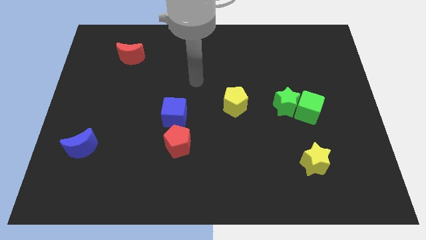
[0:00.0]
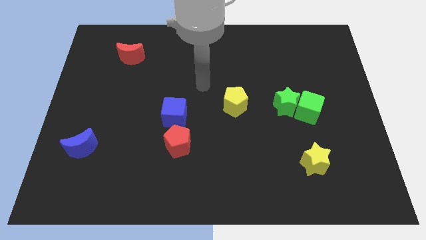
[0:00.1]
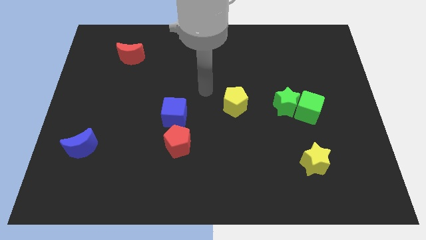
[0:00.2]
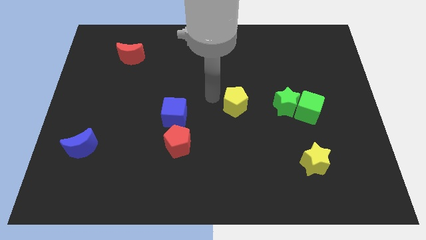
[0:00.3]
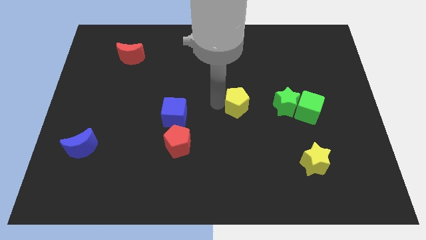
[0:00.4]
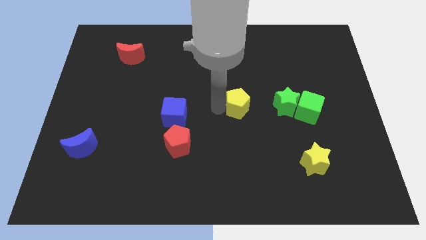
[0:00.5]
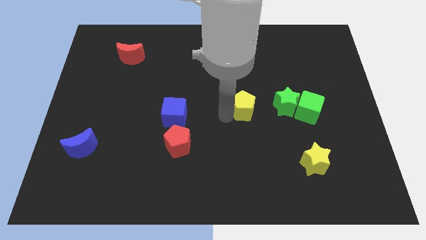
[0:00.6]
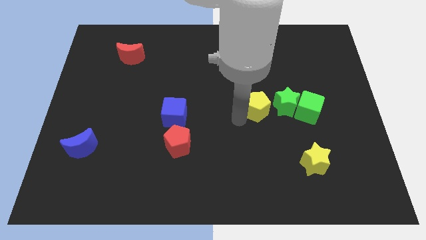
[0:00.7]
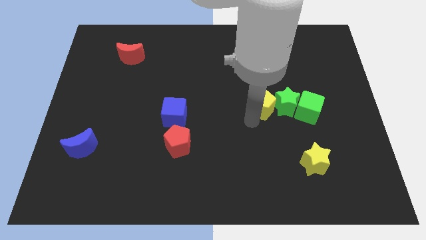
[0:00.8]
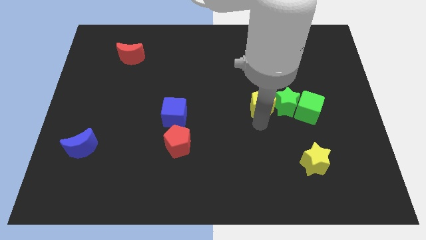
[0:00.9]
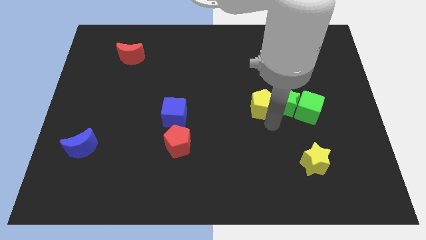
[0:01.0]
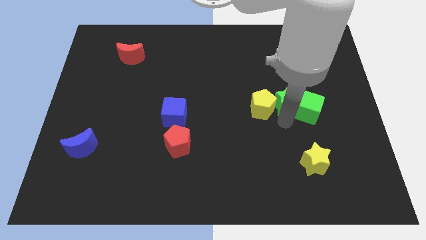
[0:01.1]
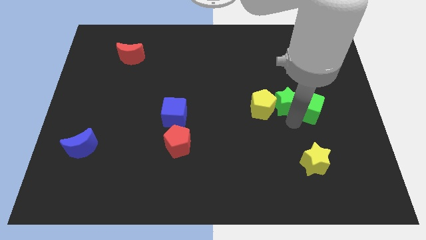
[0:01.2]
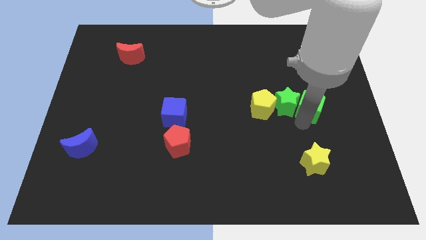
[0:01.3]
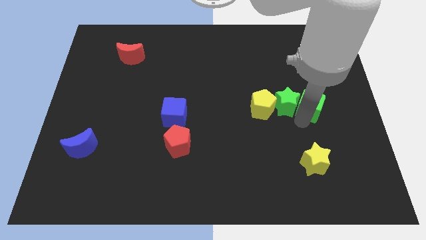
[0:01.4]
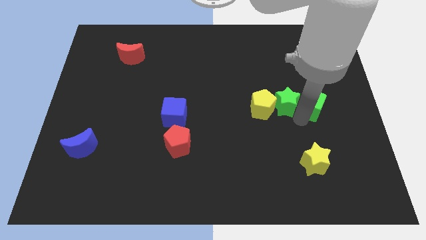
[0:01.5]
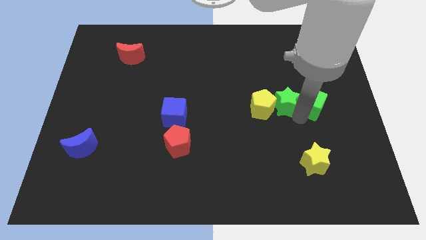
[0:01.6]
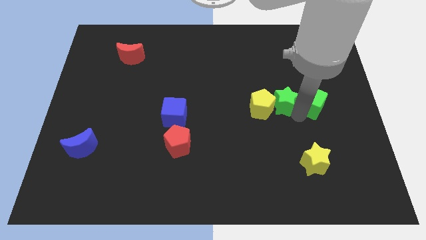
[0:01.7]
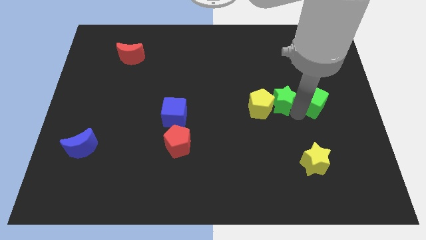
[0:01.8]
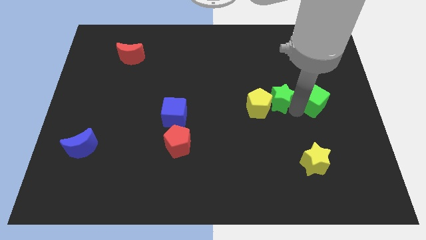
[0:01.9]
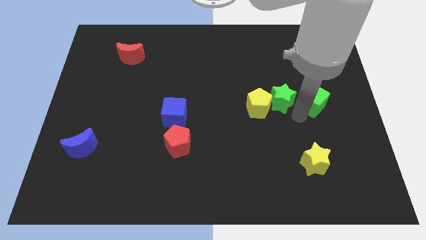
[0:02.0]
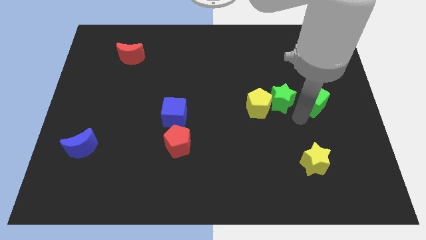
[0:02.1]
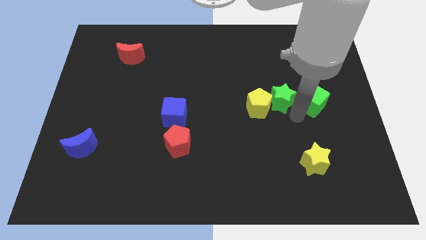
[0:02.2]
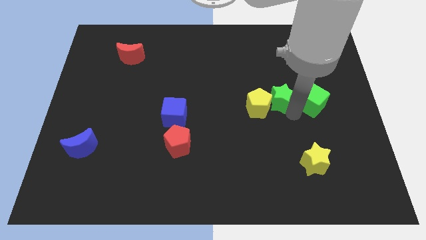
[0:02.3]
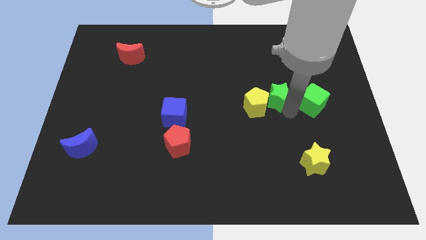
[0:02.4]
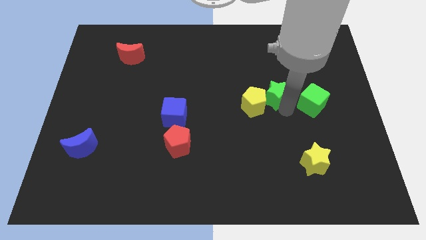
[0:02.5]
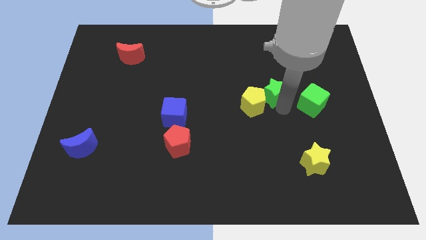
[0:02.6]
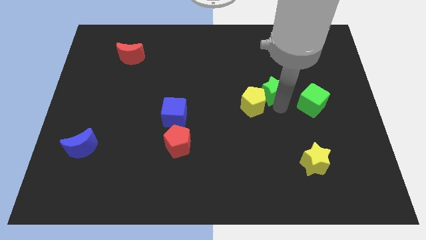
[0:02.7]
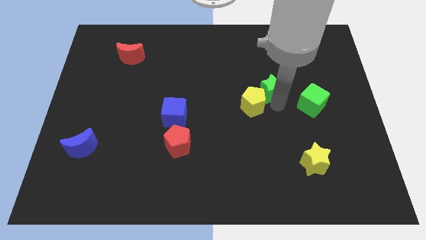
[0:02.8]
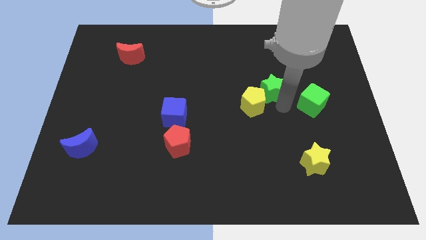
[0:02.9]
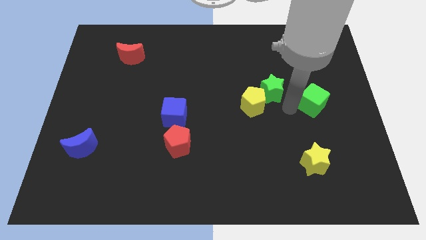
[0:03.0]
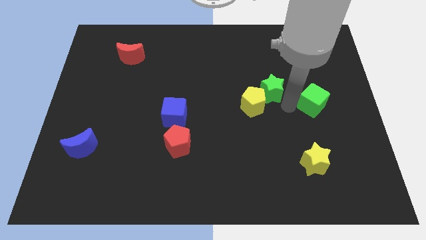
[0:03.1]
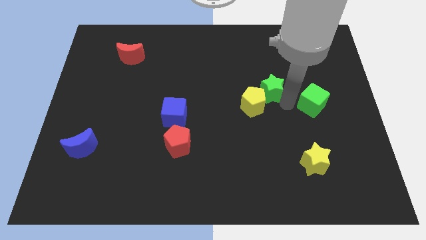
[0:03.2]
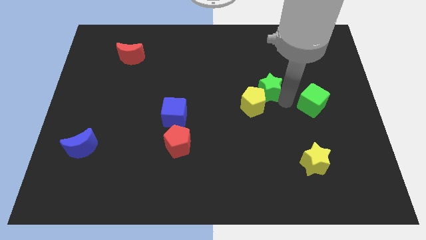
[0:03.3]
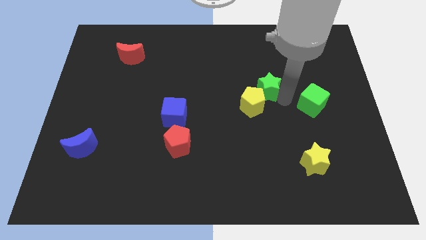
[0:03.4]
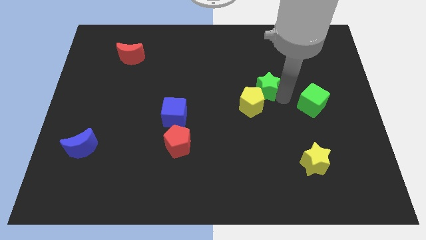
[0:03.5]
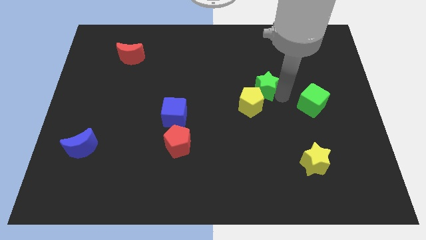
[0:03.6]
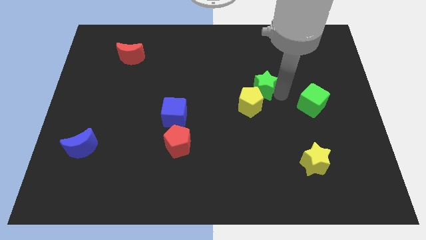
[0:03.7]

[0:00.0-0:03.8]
push the green star a little up and left diagonally

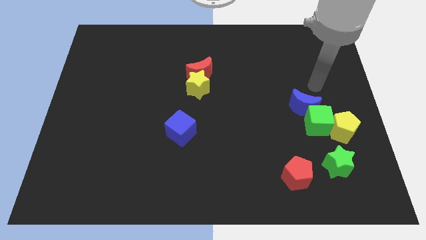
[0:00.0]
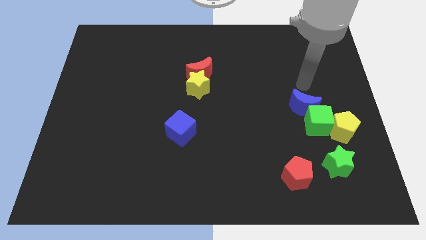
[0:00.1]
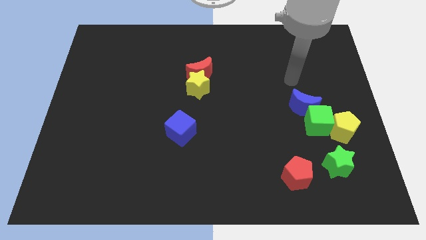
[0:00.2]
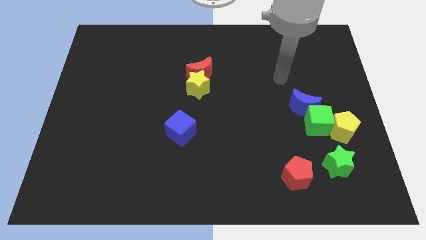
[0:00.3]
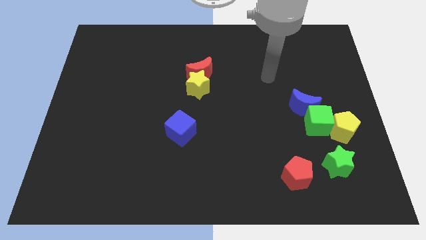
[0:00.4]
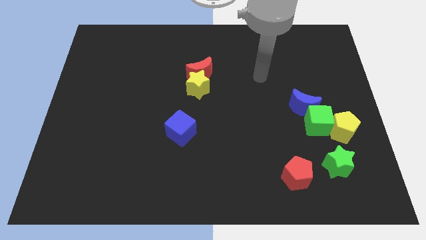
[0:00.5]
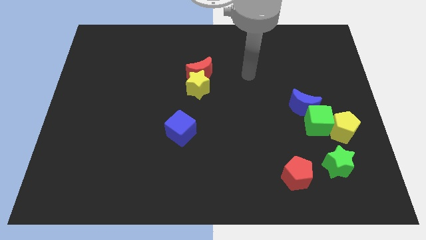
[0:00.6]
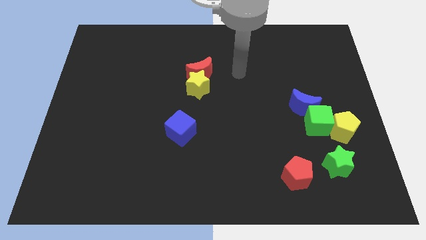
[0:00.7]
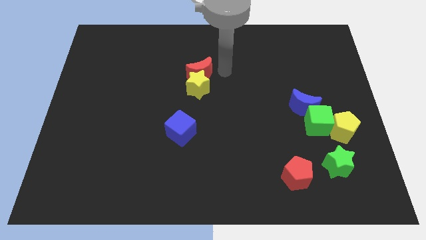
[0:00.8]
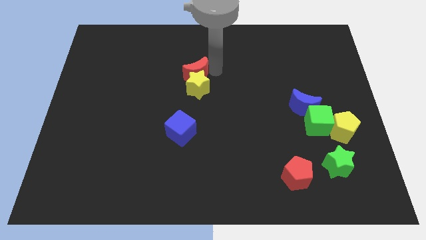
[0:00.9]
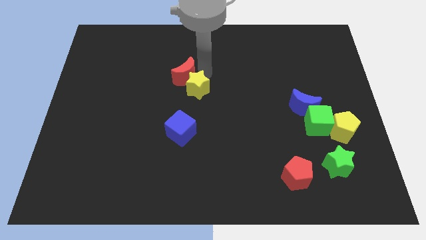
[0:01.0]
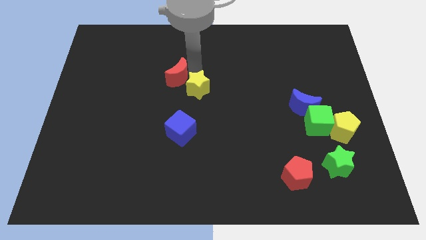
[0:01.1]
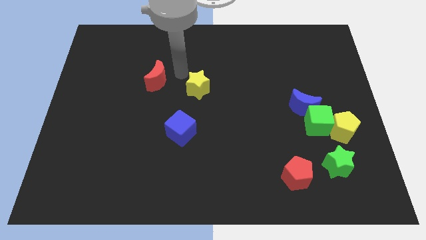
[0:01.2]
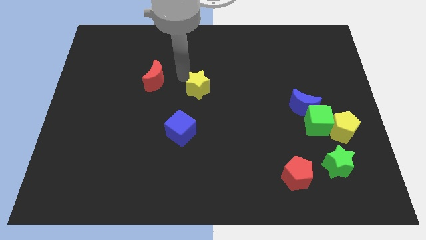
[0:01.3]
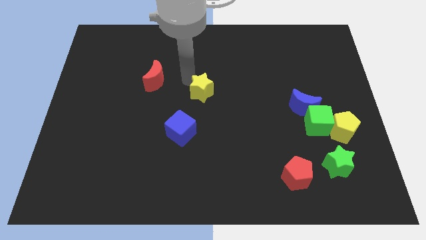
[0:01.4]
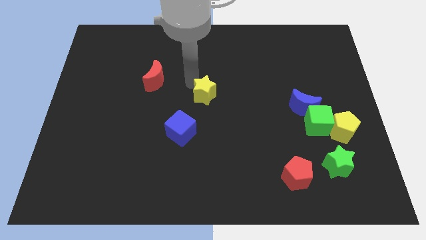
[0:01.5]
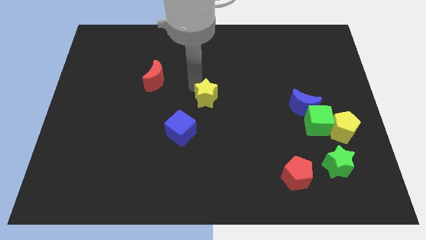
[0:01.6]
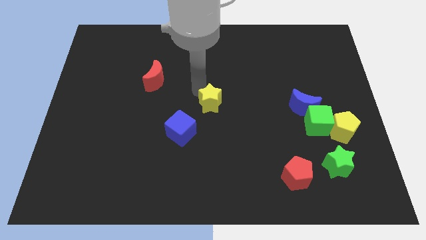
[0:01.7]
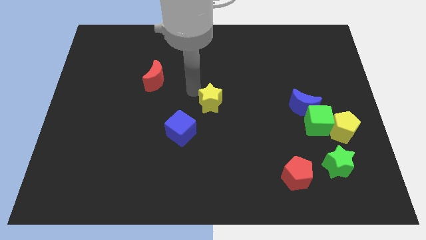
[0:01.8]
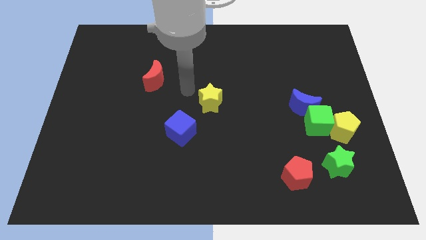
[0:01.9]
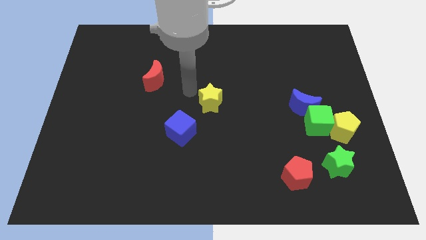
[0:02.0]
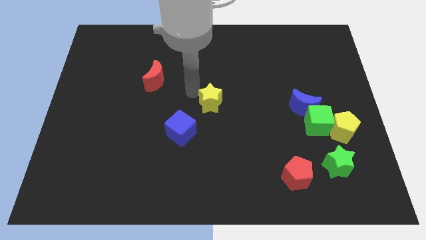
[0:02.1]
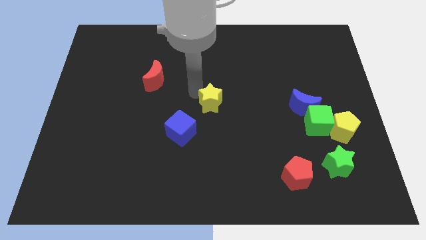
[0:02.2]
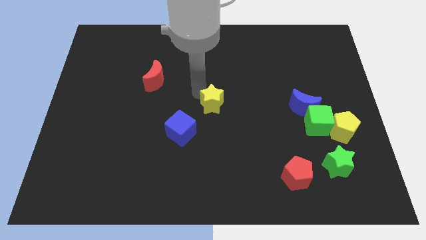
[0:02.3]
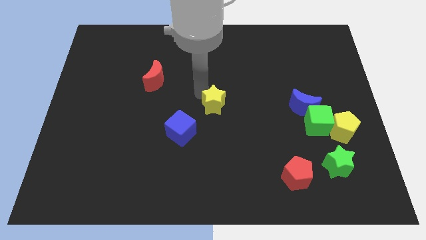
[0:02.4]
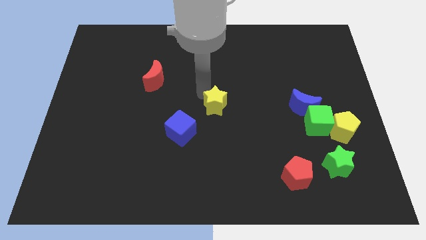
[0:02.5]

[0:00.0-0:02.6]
move the yellow star diagonally downwards and right a bit

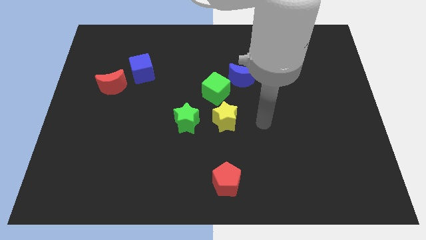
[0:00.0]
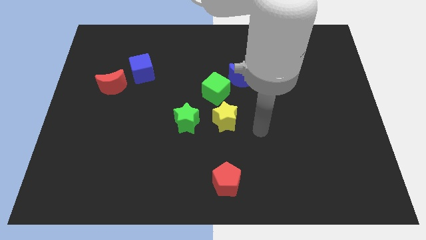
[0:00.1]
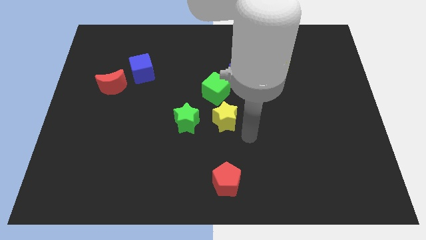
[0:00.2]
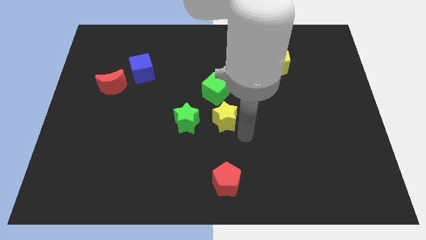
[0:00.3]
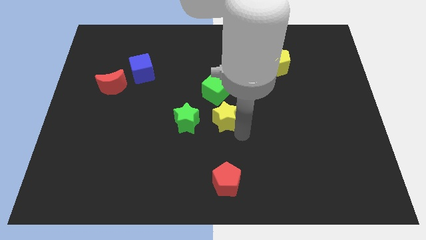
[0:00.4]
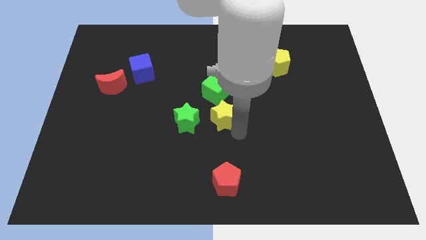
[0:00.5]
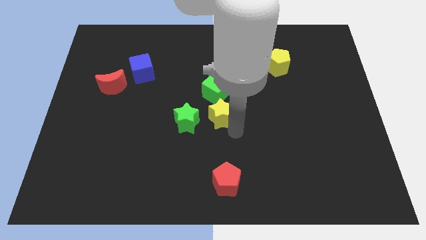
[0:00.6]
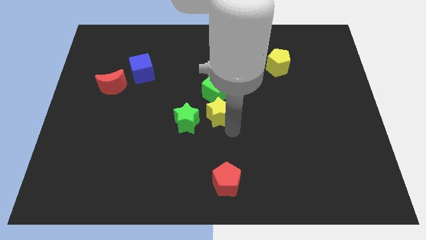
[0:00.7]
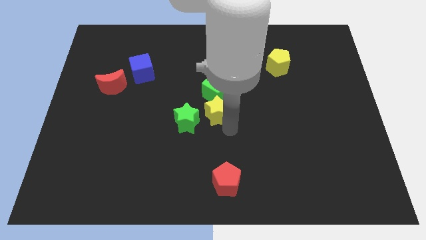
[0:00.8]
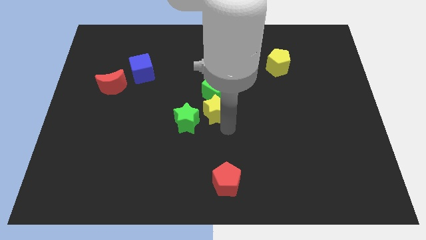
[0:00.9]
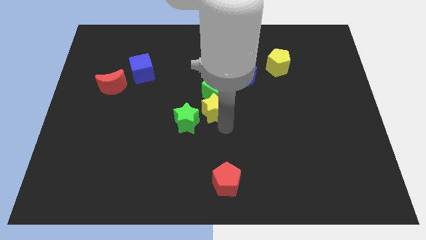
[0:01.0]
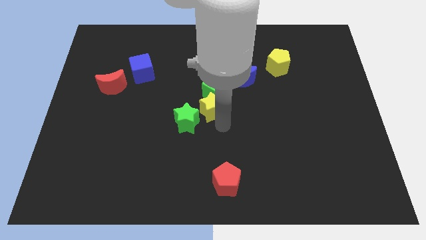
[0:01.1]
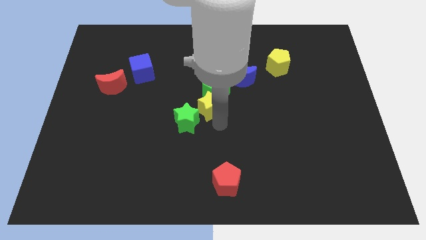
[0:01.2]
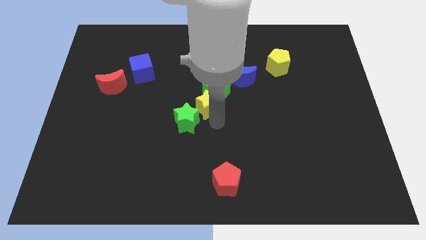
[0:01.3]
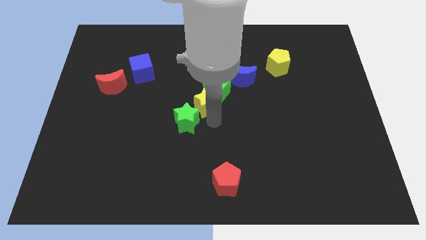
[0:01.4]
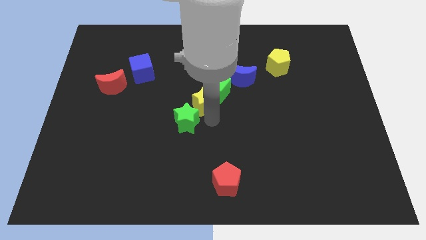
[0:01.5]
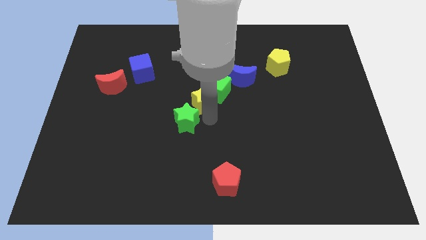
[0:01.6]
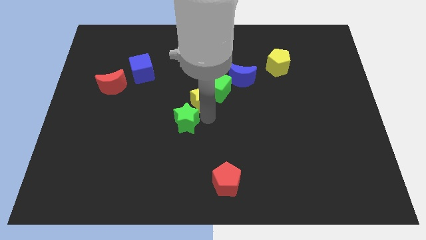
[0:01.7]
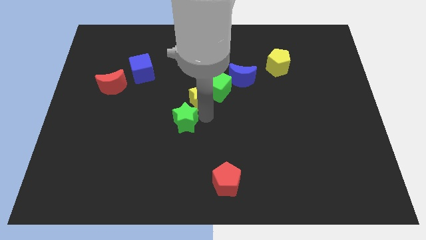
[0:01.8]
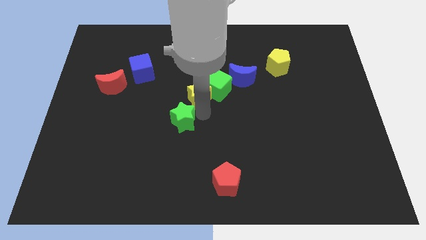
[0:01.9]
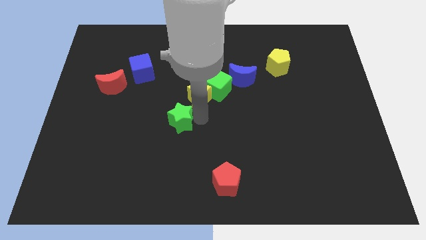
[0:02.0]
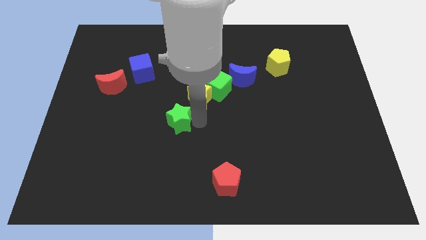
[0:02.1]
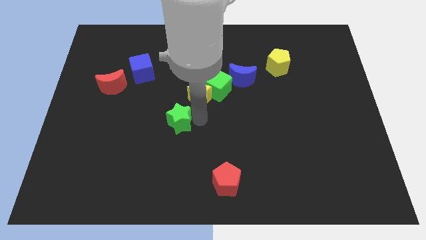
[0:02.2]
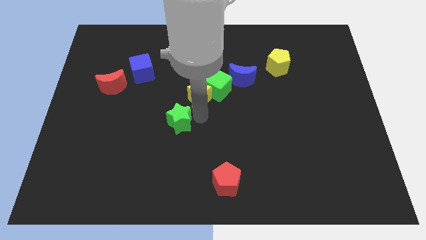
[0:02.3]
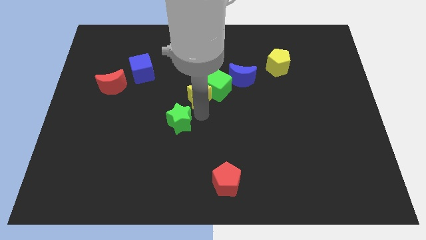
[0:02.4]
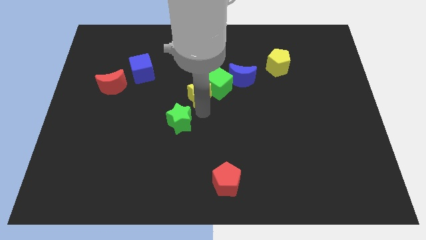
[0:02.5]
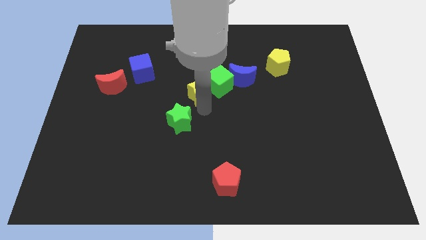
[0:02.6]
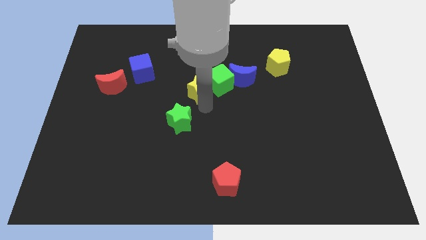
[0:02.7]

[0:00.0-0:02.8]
push the yellow star a little bit upwards
